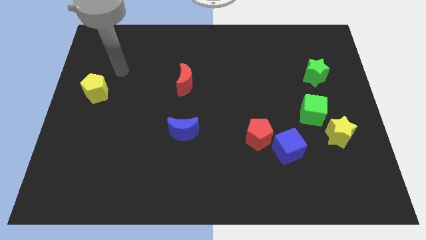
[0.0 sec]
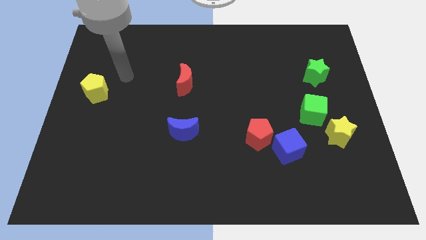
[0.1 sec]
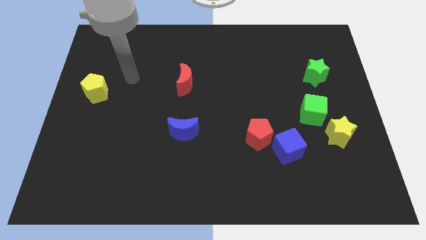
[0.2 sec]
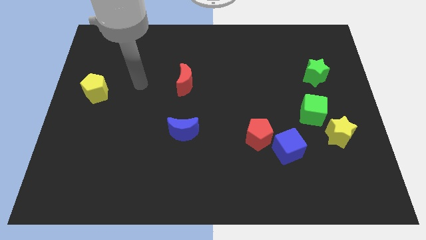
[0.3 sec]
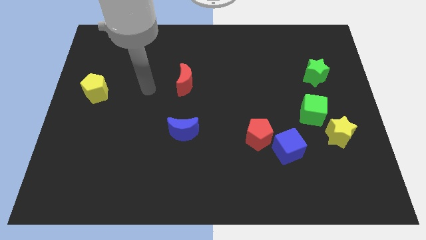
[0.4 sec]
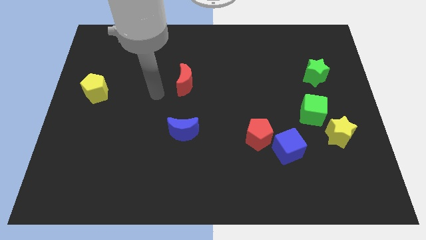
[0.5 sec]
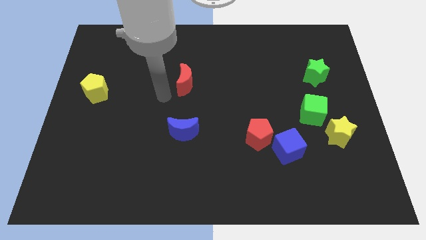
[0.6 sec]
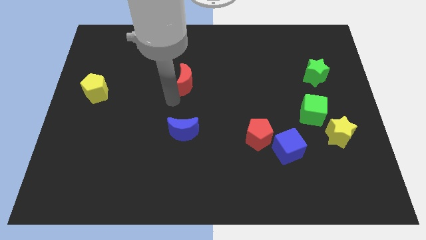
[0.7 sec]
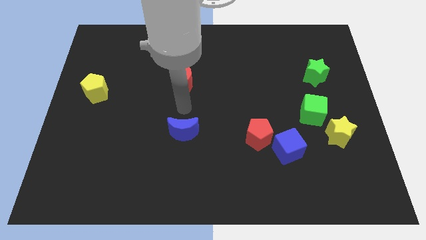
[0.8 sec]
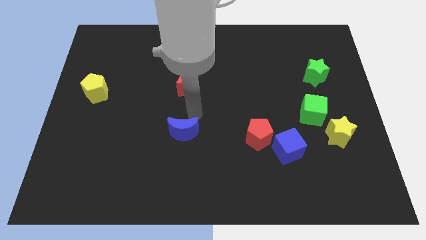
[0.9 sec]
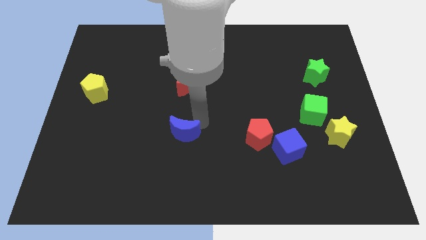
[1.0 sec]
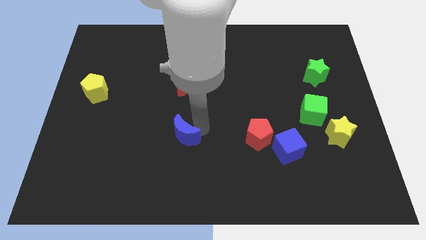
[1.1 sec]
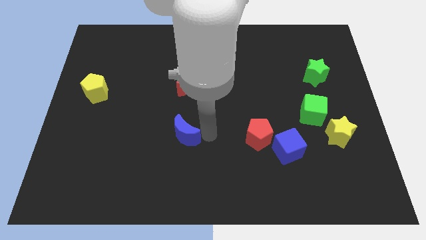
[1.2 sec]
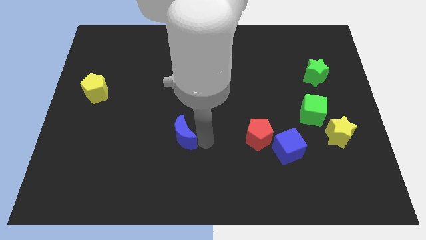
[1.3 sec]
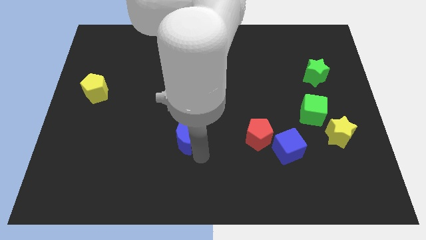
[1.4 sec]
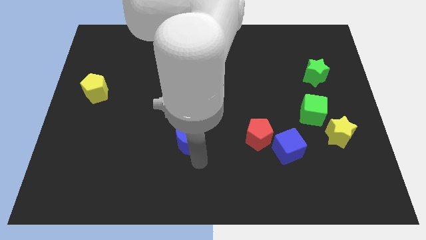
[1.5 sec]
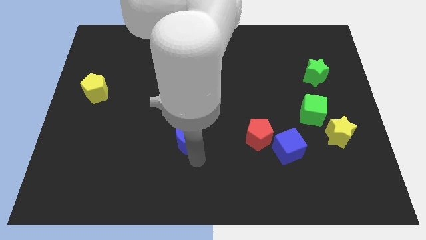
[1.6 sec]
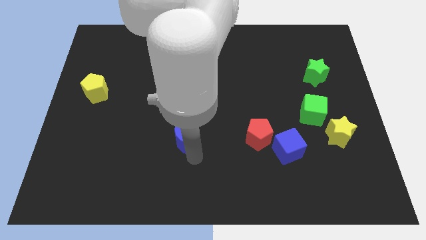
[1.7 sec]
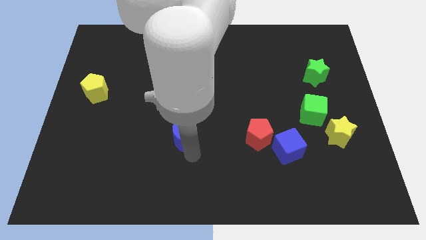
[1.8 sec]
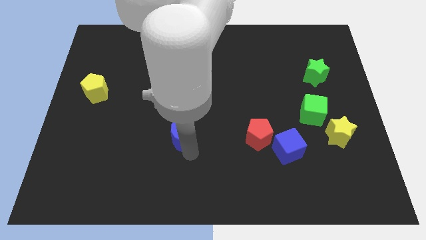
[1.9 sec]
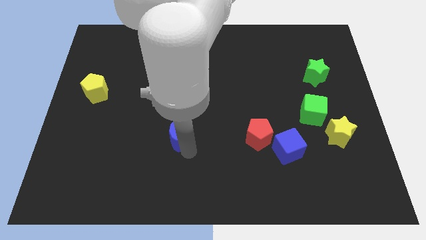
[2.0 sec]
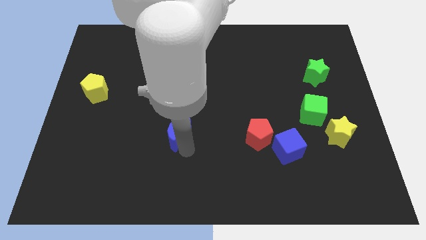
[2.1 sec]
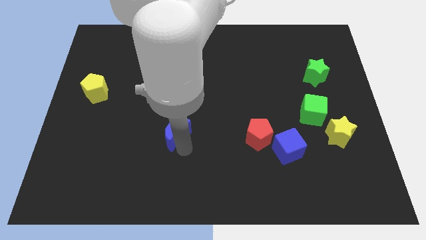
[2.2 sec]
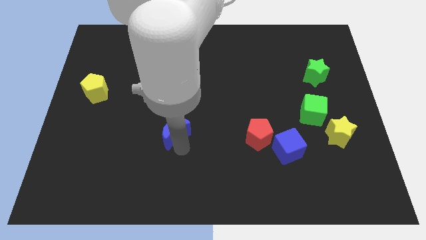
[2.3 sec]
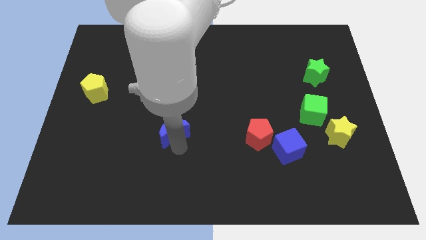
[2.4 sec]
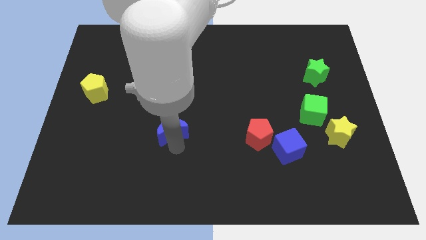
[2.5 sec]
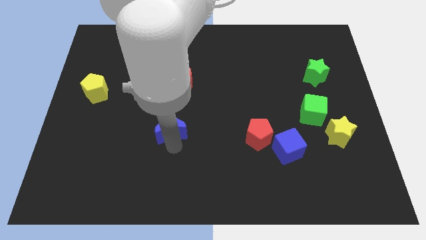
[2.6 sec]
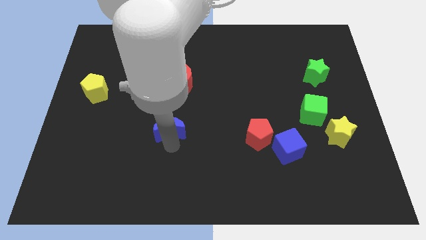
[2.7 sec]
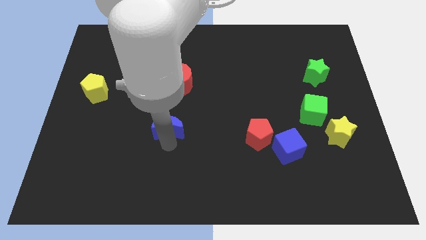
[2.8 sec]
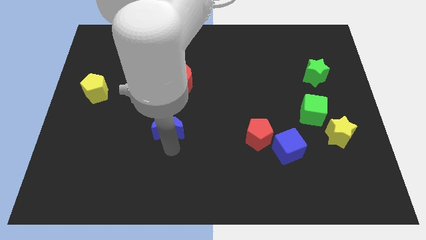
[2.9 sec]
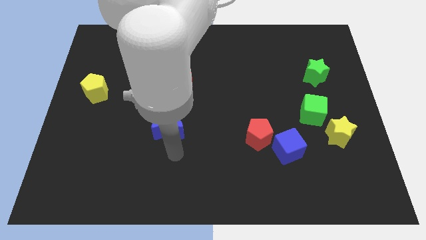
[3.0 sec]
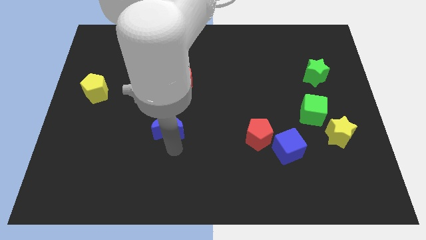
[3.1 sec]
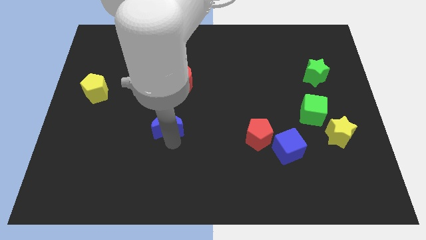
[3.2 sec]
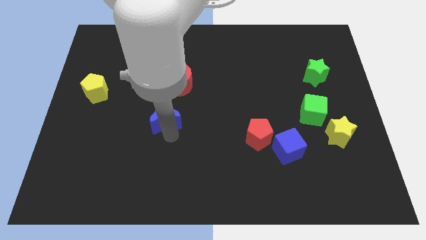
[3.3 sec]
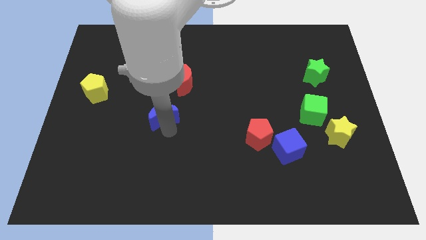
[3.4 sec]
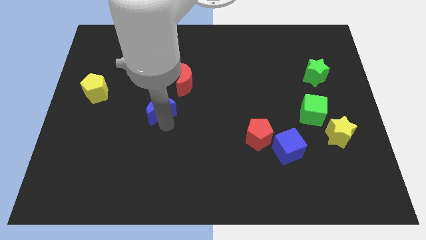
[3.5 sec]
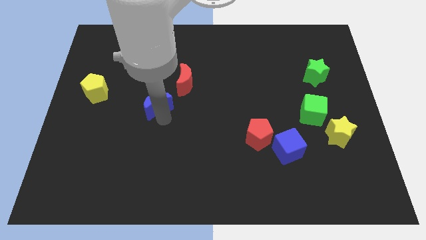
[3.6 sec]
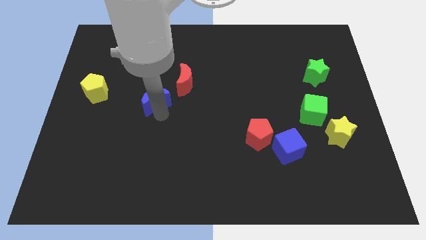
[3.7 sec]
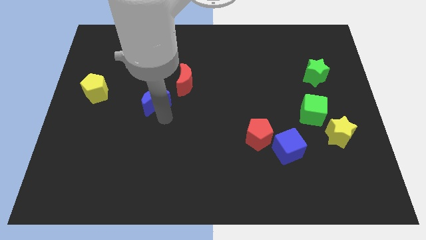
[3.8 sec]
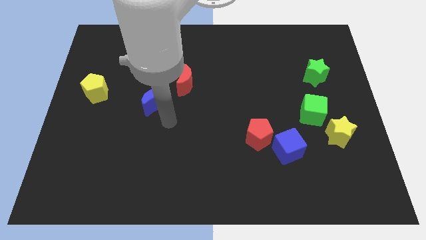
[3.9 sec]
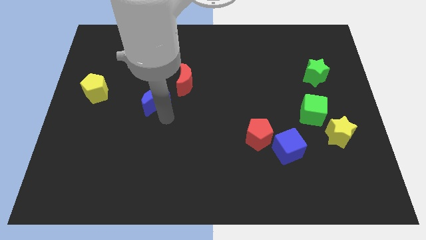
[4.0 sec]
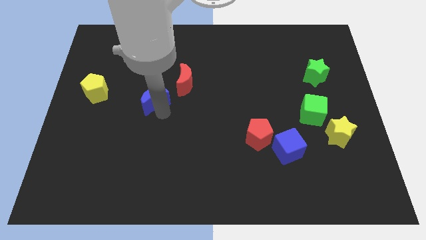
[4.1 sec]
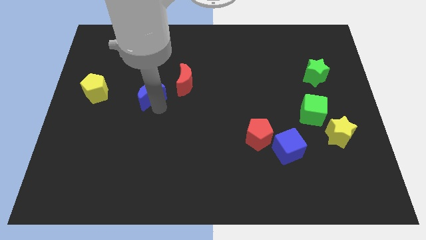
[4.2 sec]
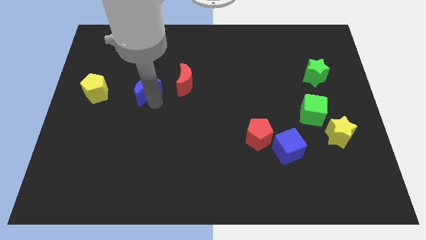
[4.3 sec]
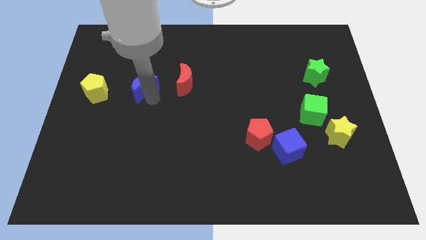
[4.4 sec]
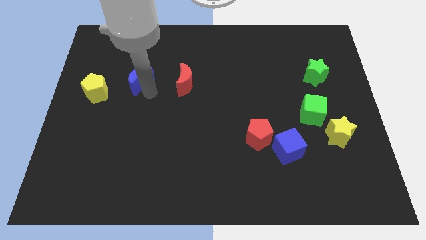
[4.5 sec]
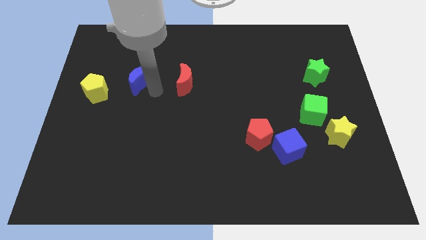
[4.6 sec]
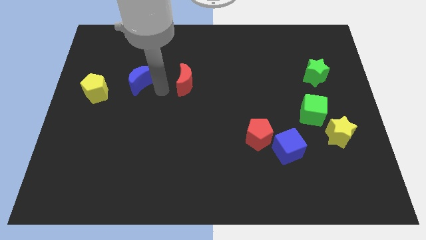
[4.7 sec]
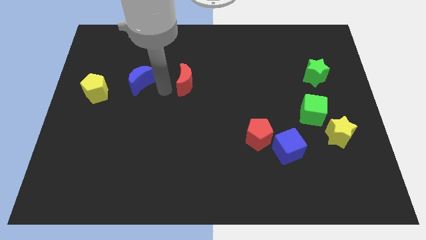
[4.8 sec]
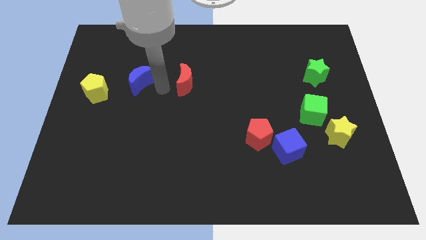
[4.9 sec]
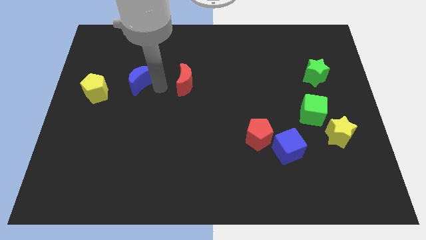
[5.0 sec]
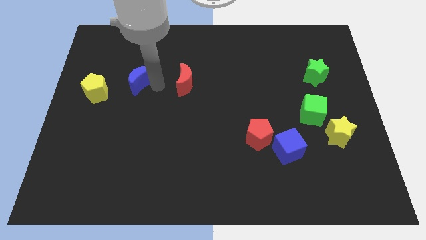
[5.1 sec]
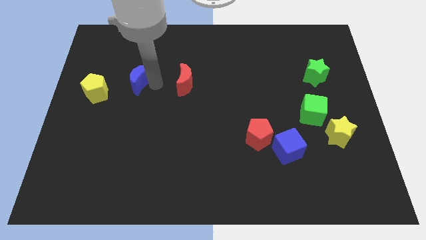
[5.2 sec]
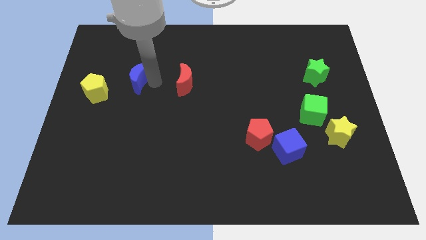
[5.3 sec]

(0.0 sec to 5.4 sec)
put the blue moon to the top right side of the yellow pentagon

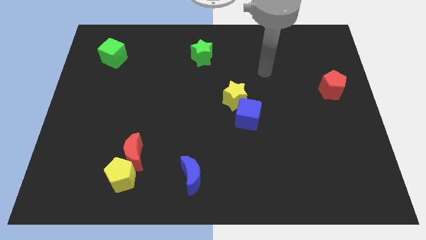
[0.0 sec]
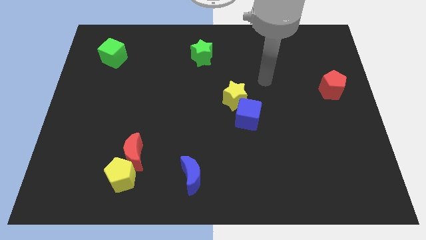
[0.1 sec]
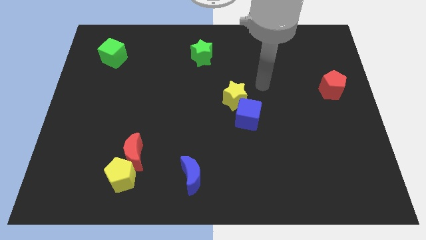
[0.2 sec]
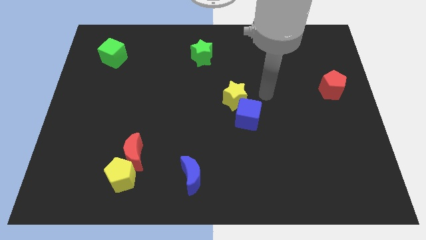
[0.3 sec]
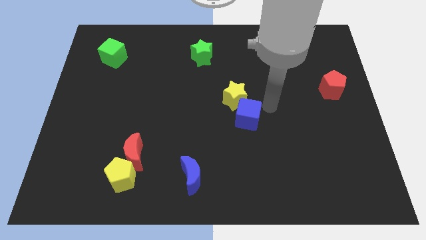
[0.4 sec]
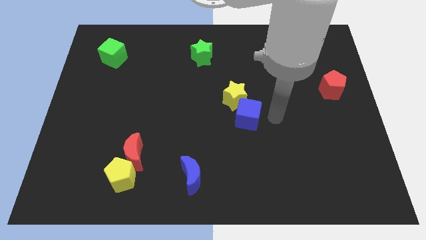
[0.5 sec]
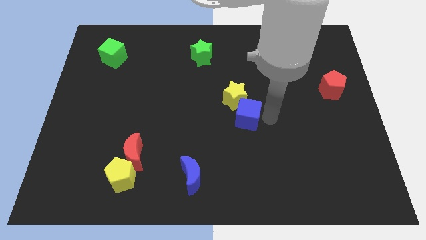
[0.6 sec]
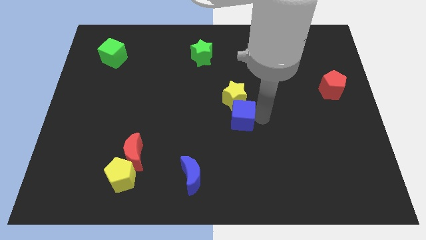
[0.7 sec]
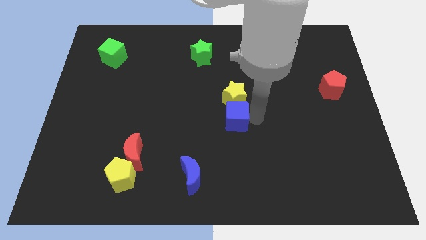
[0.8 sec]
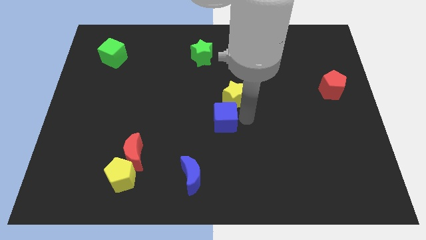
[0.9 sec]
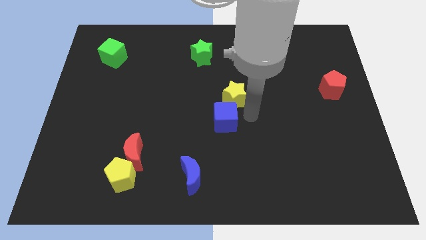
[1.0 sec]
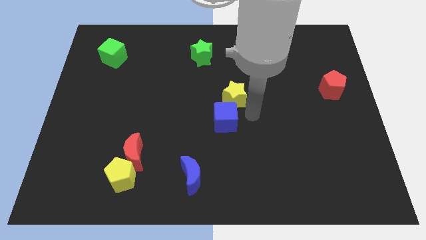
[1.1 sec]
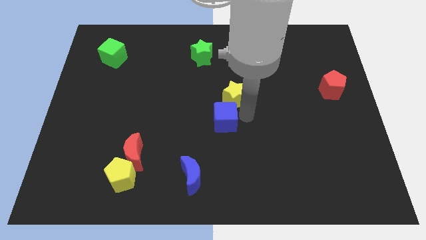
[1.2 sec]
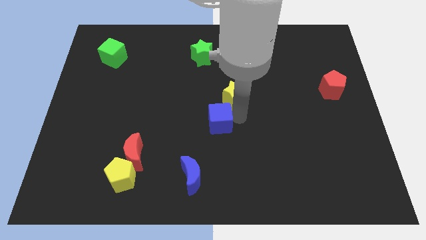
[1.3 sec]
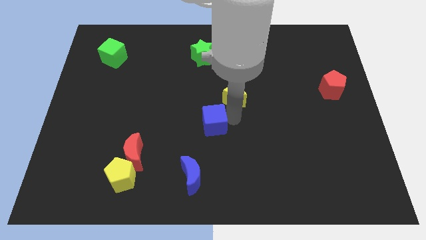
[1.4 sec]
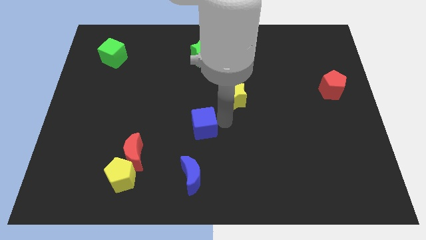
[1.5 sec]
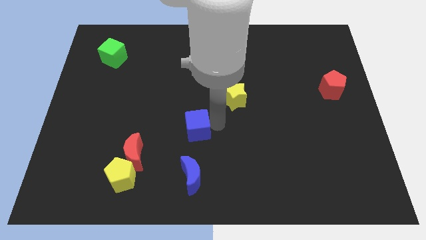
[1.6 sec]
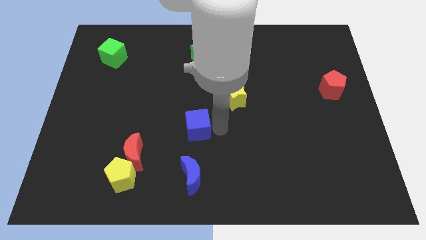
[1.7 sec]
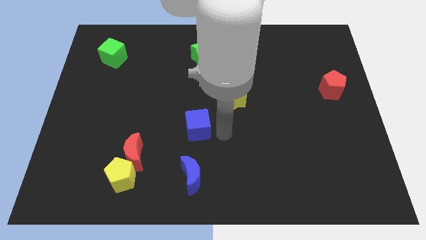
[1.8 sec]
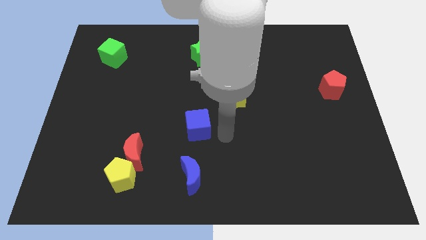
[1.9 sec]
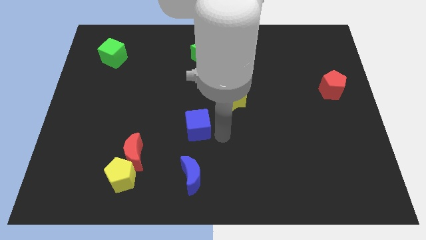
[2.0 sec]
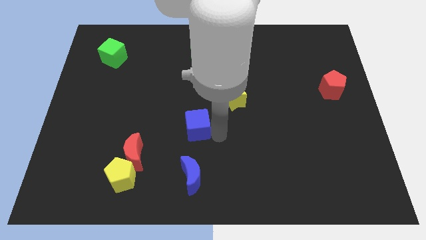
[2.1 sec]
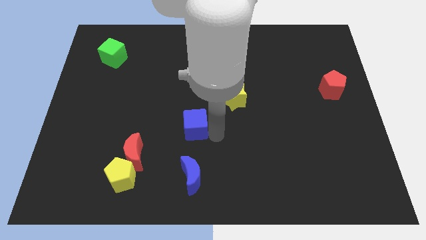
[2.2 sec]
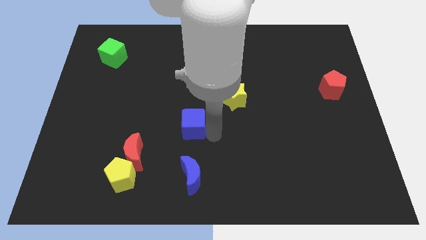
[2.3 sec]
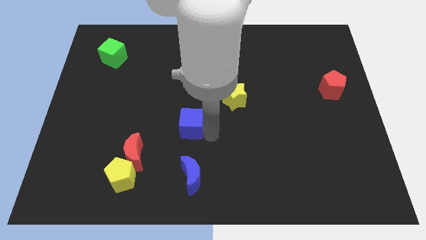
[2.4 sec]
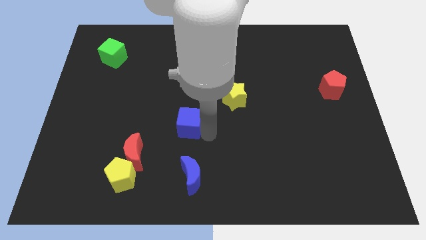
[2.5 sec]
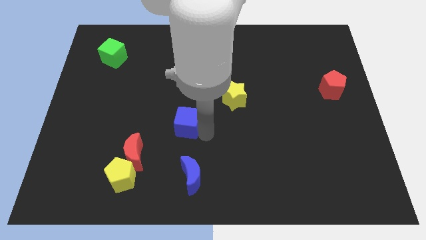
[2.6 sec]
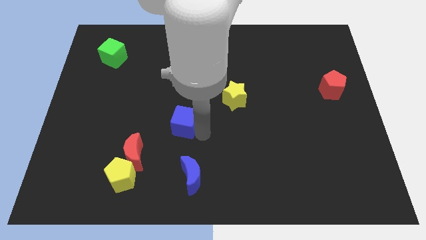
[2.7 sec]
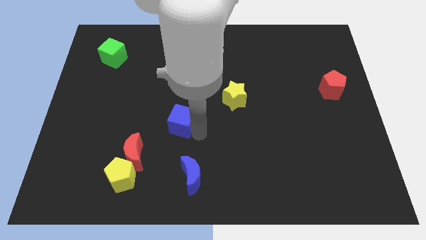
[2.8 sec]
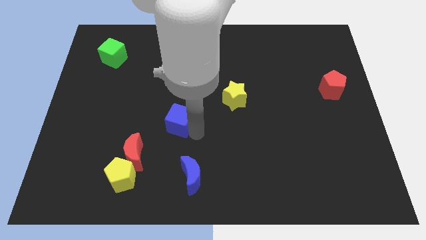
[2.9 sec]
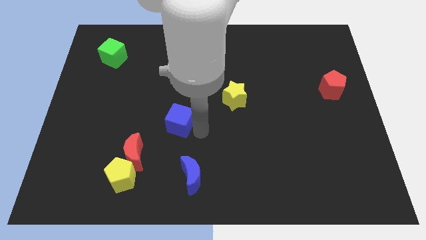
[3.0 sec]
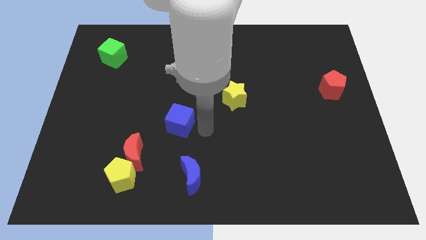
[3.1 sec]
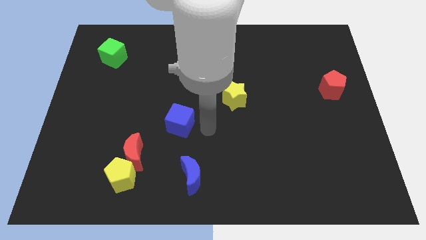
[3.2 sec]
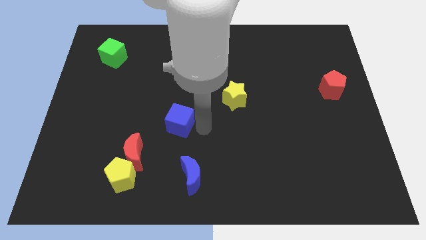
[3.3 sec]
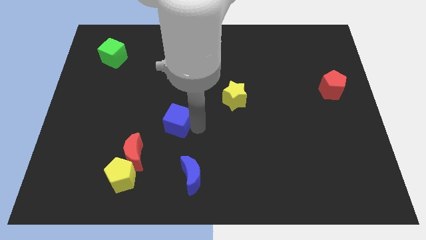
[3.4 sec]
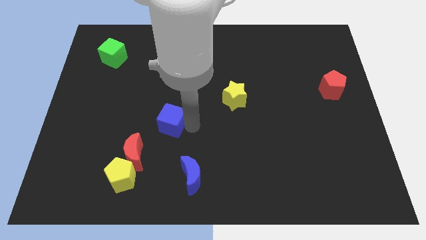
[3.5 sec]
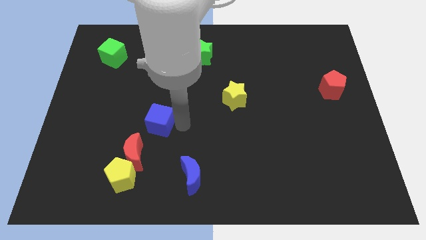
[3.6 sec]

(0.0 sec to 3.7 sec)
put the blue cube to the top side of the red moon
